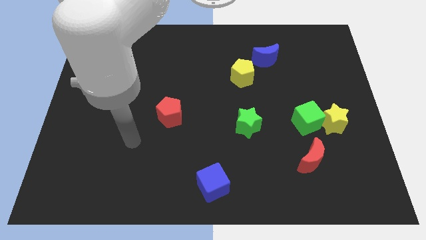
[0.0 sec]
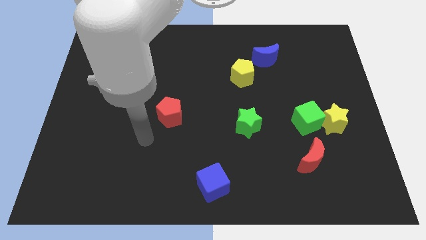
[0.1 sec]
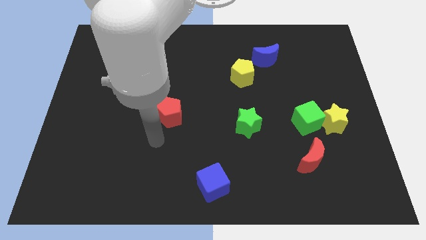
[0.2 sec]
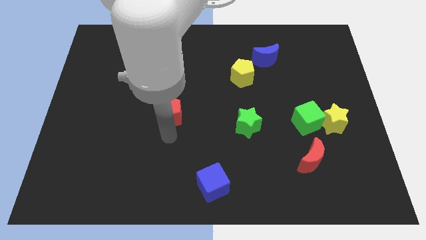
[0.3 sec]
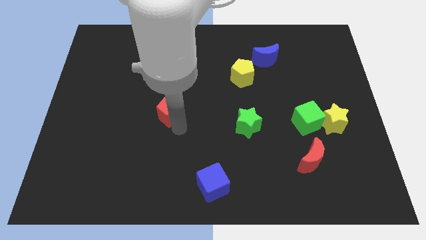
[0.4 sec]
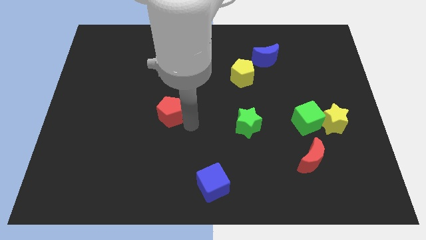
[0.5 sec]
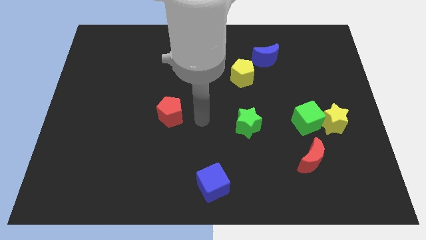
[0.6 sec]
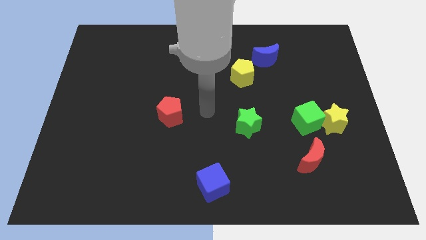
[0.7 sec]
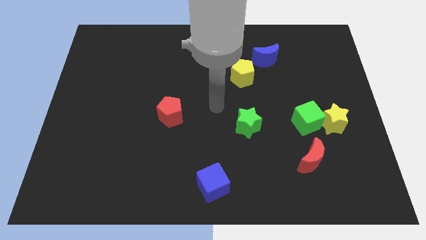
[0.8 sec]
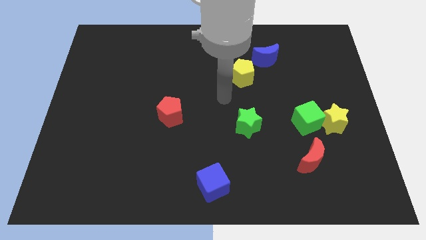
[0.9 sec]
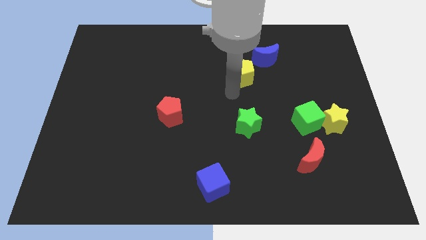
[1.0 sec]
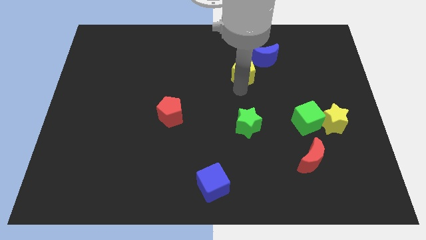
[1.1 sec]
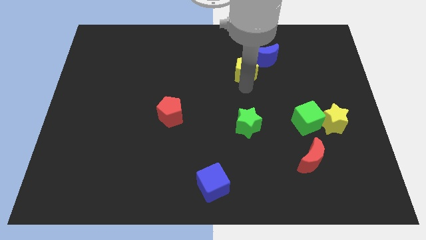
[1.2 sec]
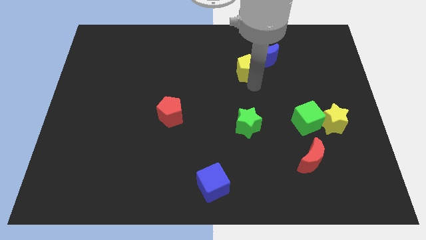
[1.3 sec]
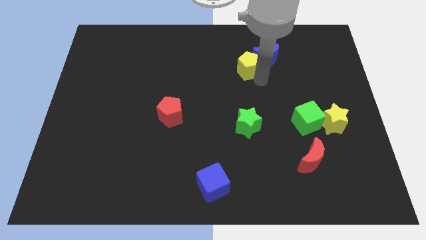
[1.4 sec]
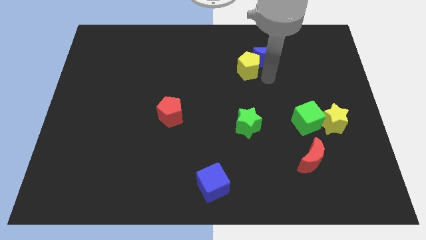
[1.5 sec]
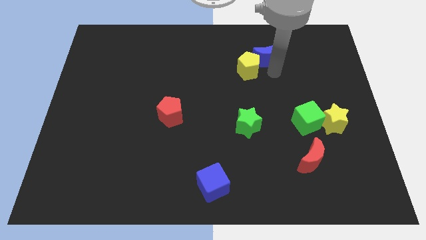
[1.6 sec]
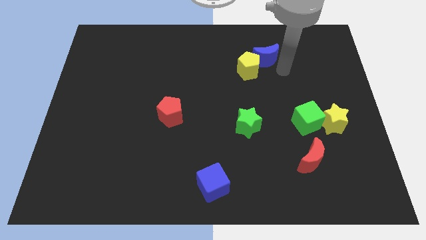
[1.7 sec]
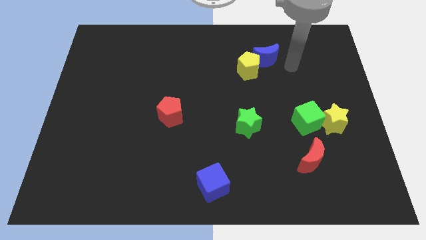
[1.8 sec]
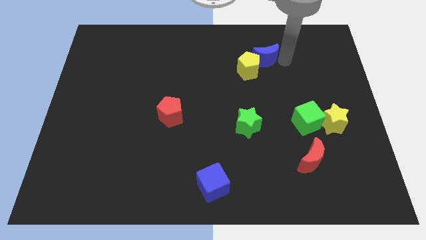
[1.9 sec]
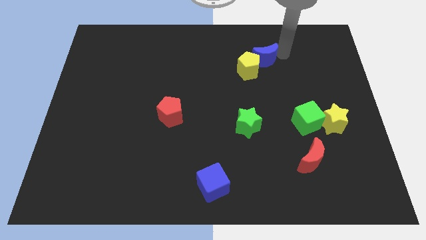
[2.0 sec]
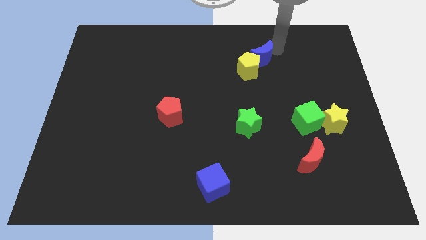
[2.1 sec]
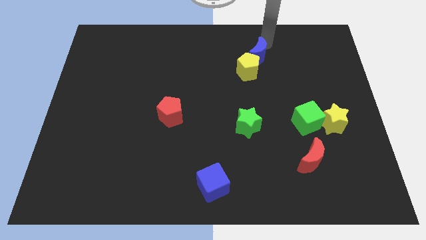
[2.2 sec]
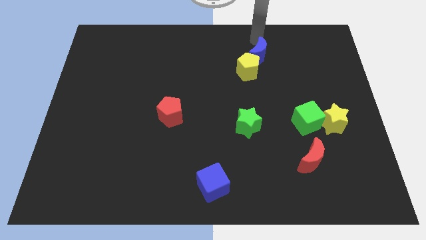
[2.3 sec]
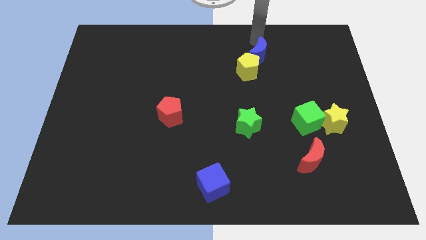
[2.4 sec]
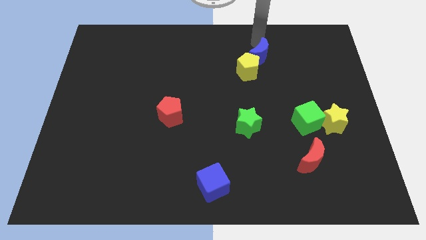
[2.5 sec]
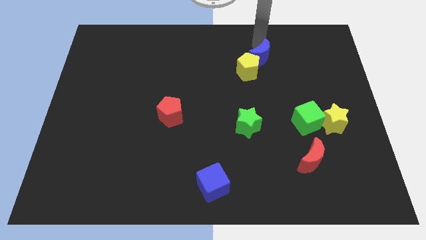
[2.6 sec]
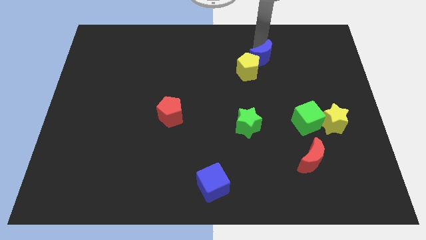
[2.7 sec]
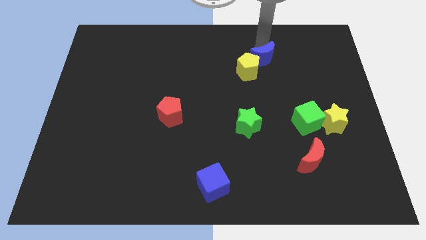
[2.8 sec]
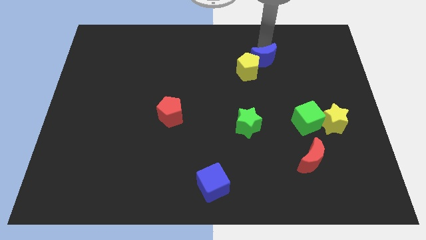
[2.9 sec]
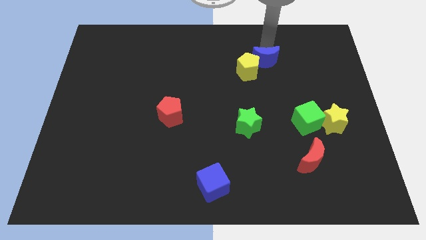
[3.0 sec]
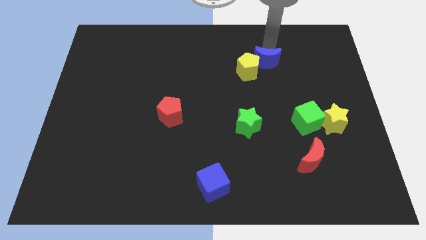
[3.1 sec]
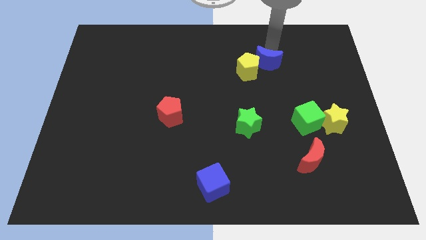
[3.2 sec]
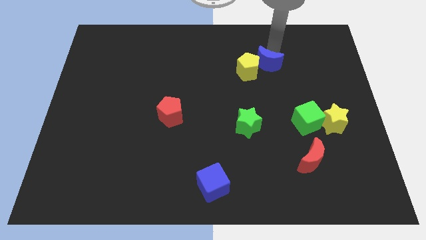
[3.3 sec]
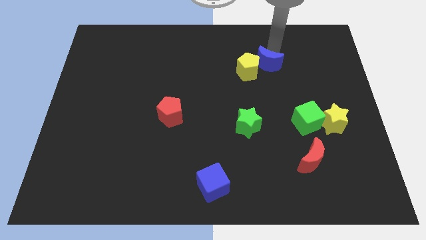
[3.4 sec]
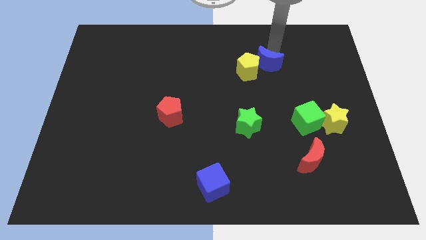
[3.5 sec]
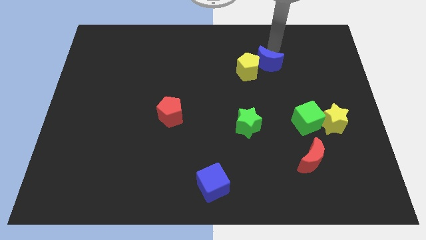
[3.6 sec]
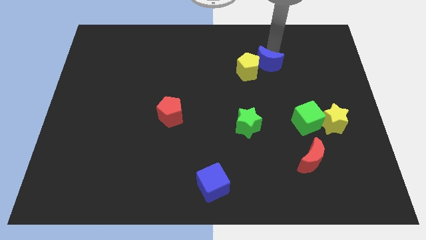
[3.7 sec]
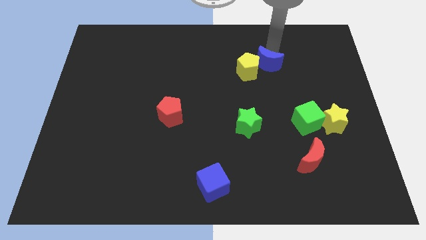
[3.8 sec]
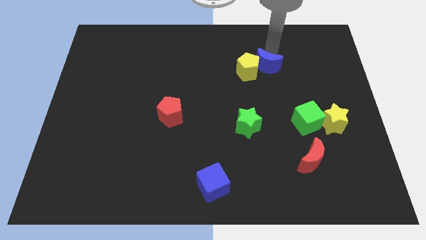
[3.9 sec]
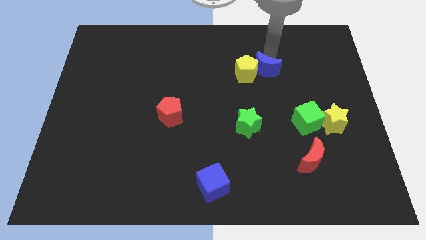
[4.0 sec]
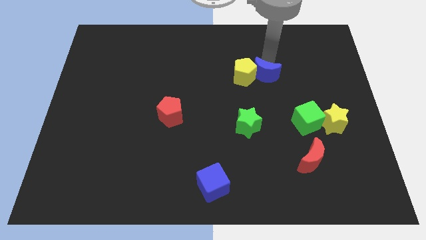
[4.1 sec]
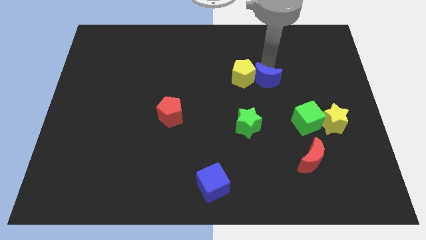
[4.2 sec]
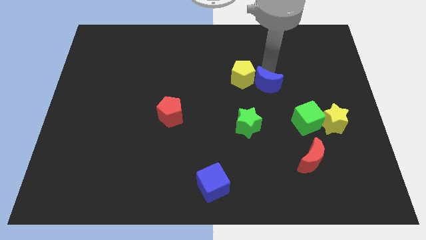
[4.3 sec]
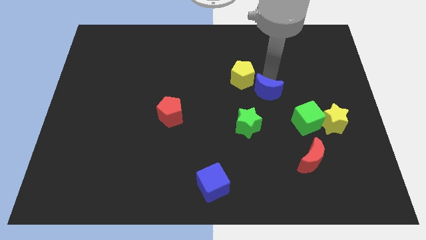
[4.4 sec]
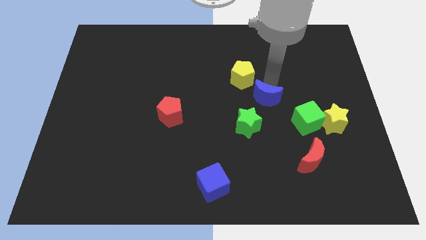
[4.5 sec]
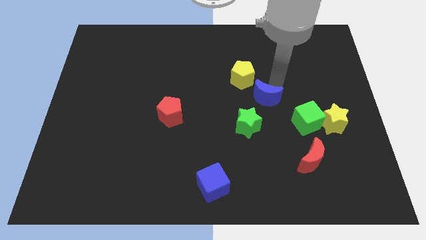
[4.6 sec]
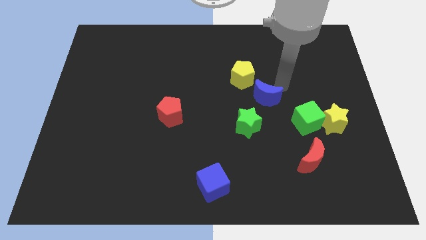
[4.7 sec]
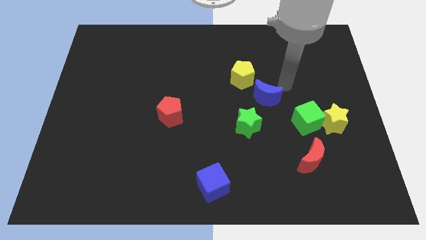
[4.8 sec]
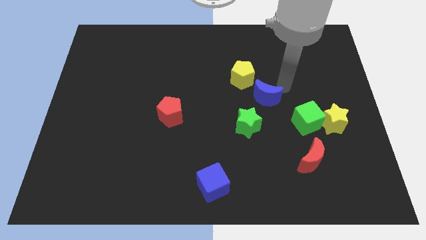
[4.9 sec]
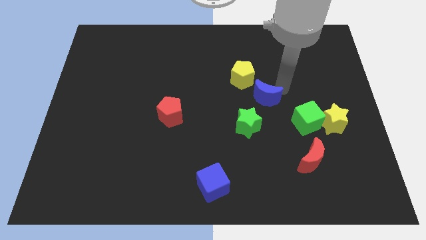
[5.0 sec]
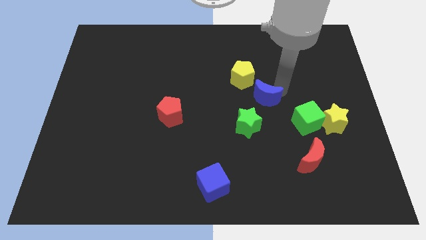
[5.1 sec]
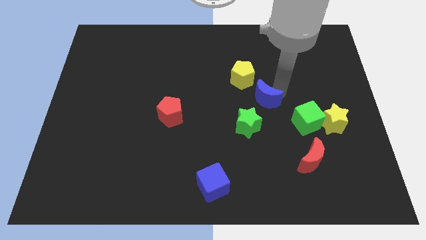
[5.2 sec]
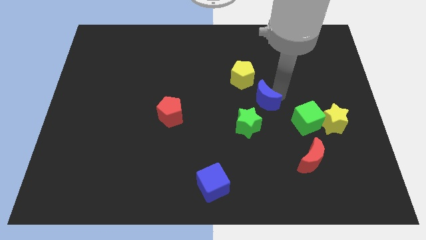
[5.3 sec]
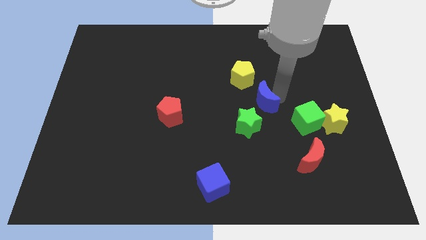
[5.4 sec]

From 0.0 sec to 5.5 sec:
slide the blue moon below the yellow pentagon

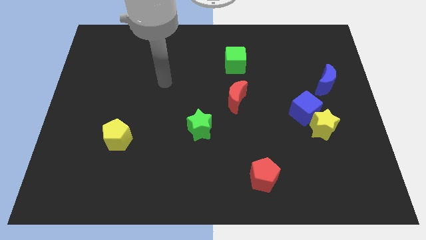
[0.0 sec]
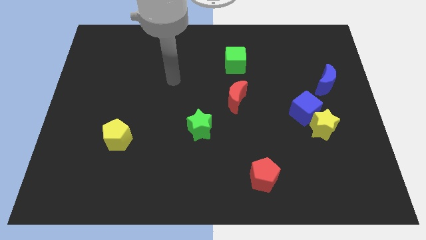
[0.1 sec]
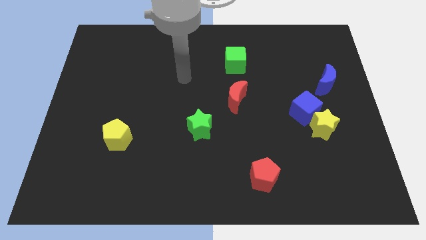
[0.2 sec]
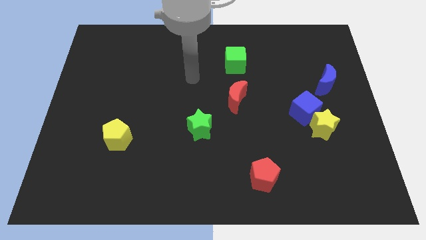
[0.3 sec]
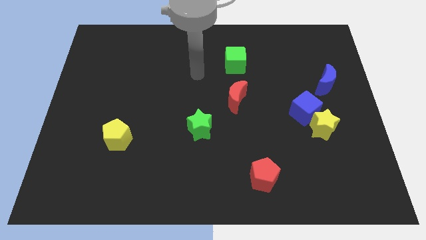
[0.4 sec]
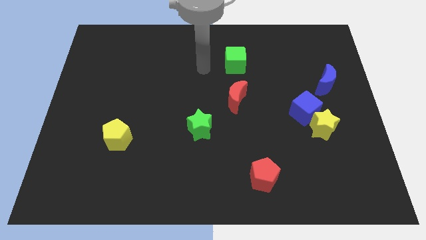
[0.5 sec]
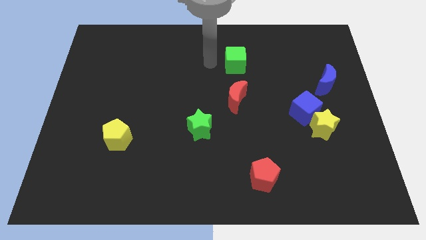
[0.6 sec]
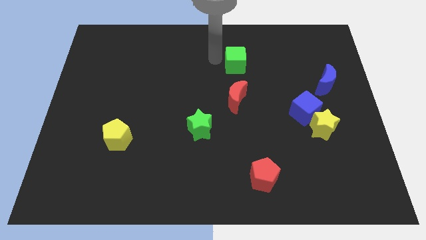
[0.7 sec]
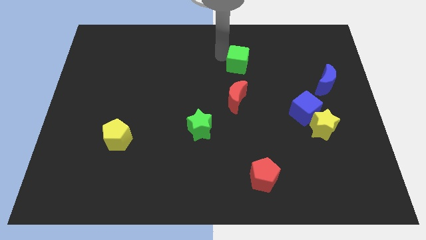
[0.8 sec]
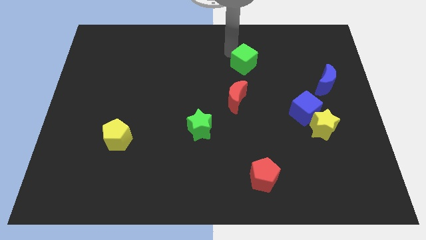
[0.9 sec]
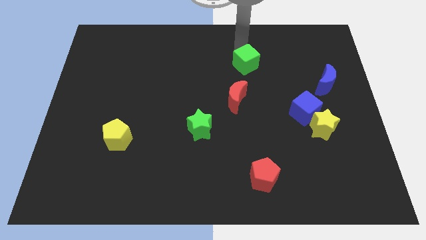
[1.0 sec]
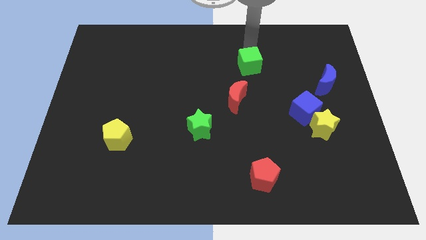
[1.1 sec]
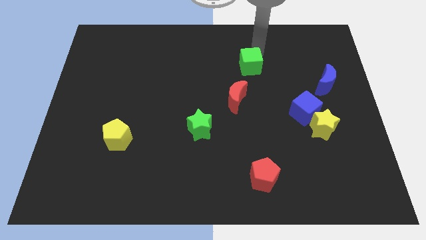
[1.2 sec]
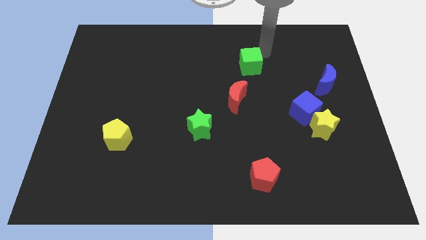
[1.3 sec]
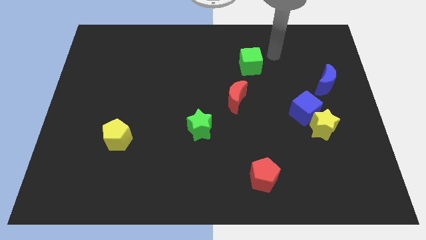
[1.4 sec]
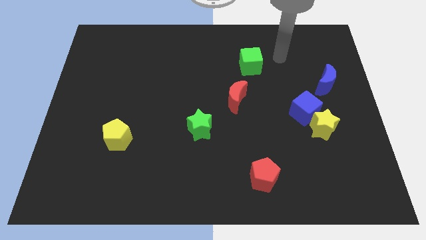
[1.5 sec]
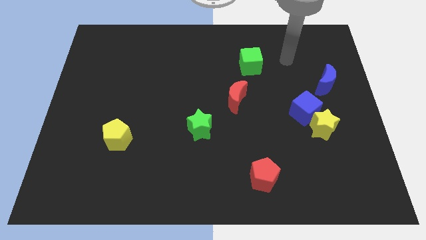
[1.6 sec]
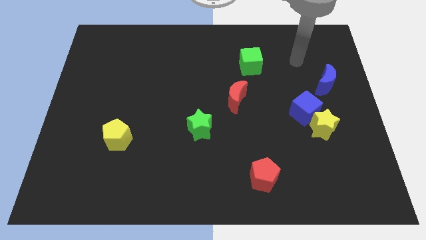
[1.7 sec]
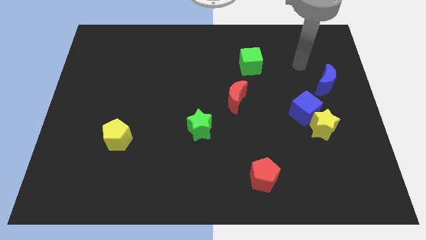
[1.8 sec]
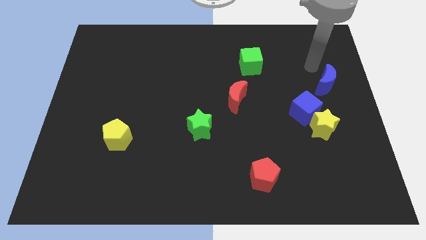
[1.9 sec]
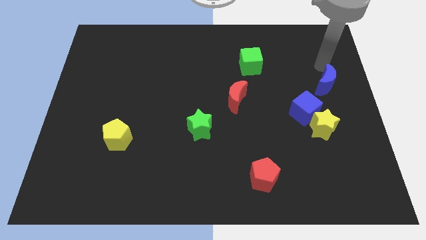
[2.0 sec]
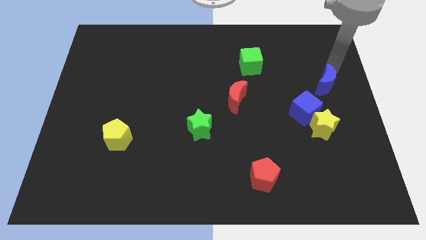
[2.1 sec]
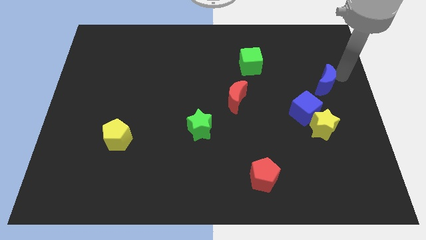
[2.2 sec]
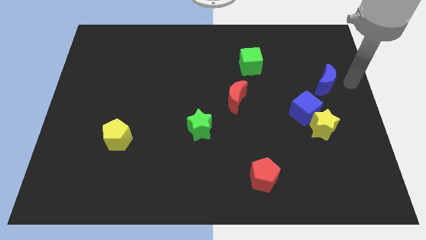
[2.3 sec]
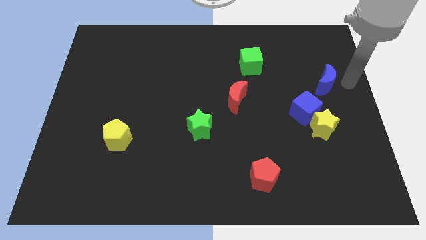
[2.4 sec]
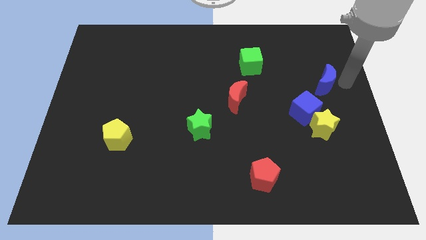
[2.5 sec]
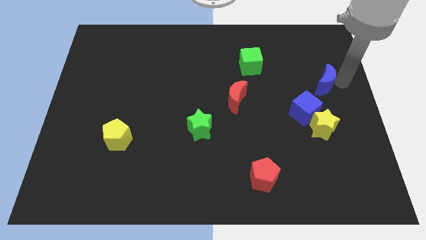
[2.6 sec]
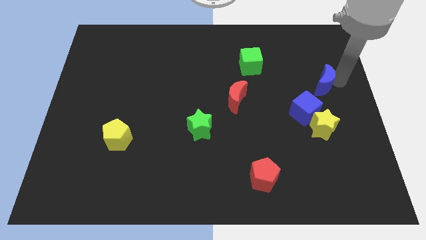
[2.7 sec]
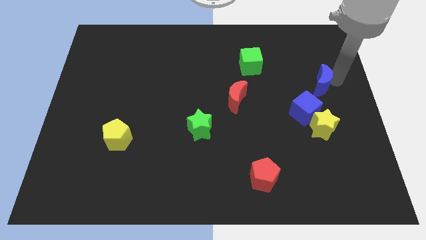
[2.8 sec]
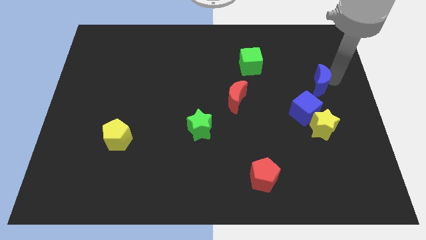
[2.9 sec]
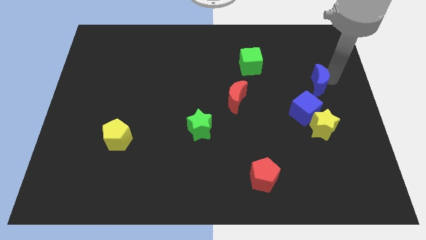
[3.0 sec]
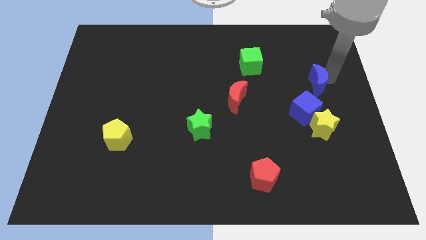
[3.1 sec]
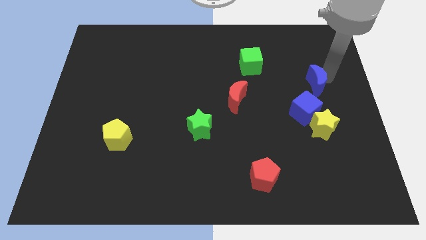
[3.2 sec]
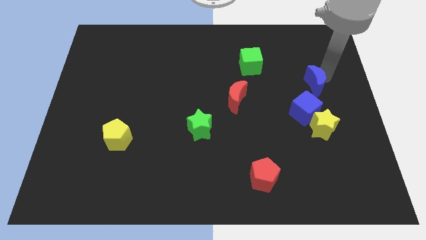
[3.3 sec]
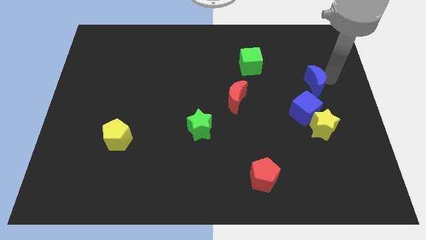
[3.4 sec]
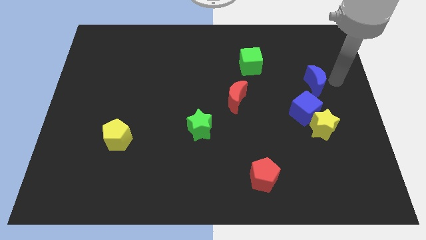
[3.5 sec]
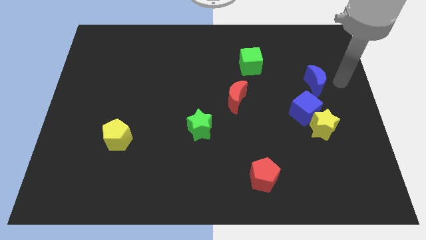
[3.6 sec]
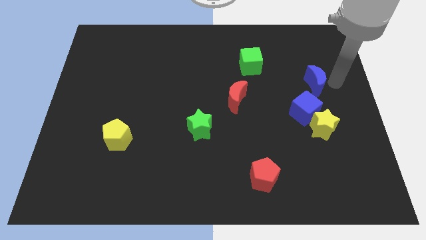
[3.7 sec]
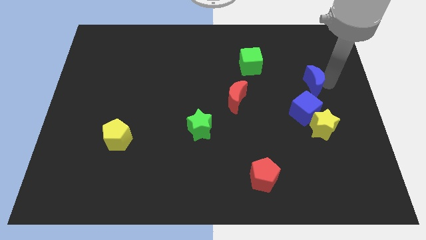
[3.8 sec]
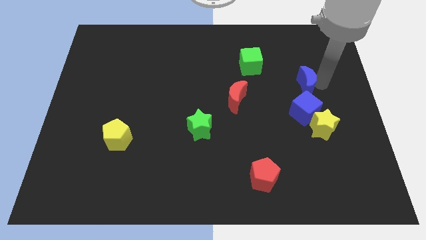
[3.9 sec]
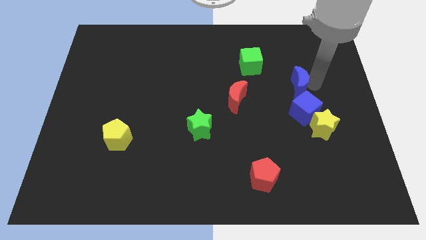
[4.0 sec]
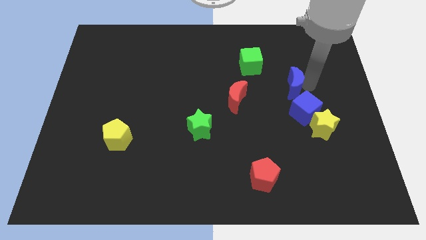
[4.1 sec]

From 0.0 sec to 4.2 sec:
move the blue moon diagonally down and to the right of the green cube
